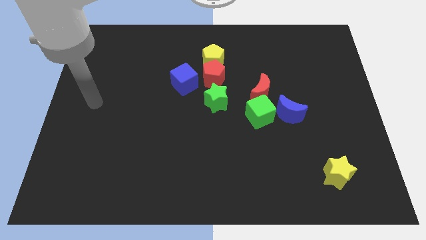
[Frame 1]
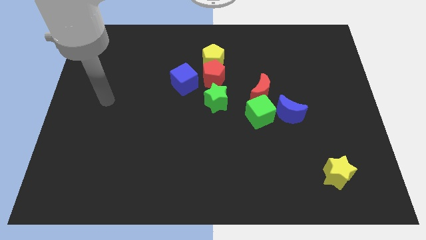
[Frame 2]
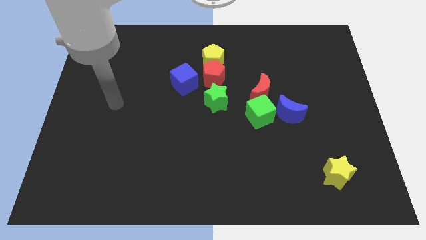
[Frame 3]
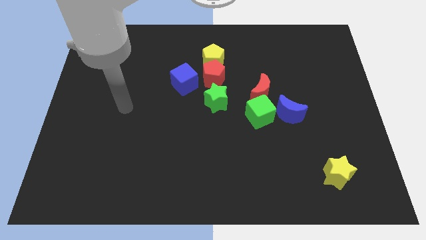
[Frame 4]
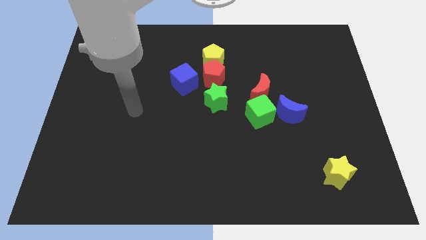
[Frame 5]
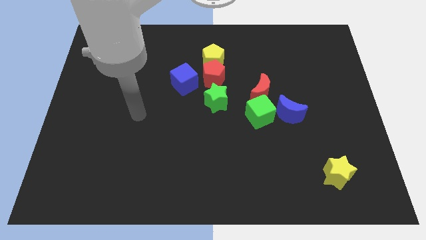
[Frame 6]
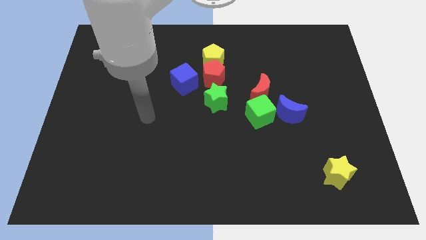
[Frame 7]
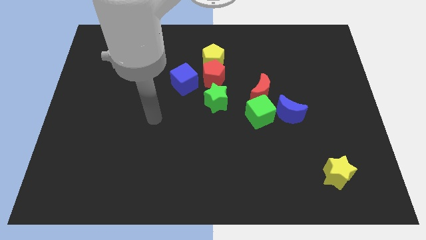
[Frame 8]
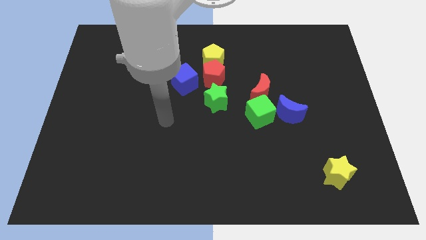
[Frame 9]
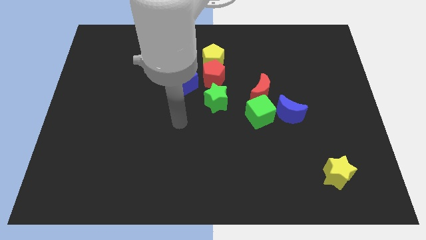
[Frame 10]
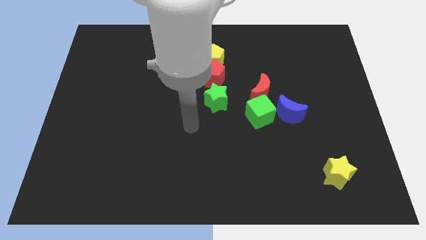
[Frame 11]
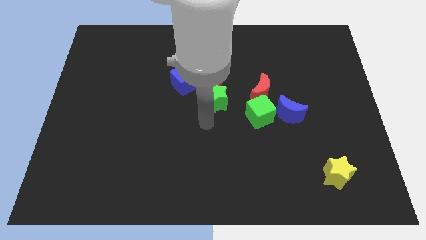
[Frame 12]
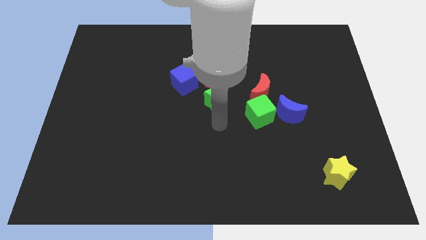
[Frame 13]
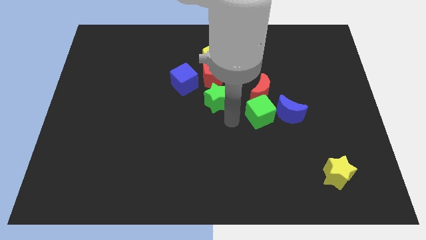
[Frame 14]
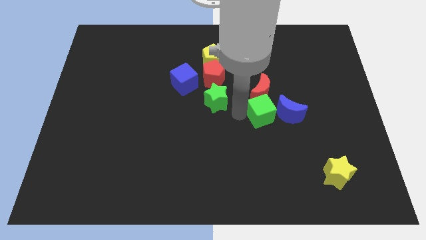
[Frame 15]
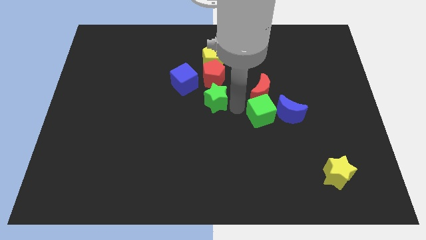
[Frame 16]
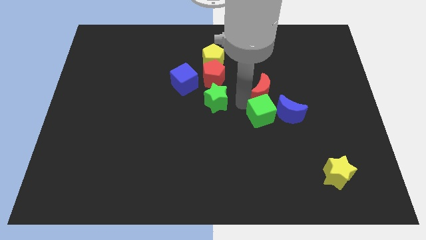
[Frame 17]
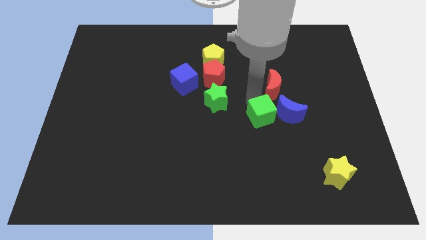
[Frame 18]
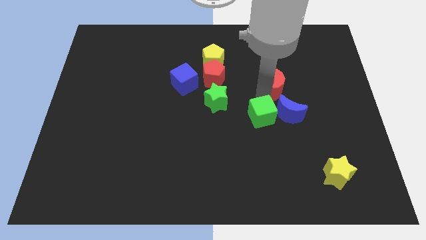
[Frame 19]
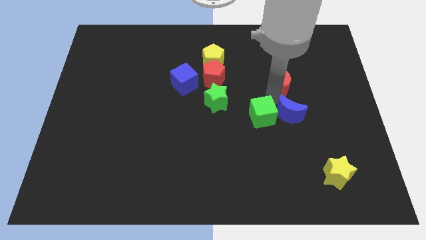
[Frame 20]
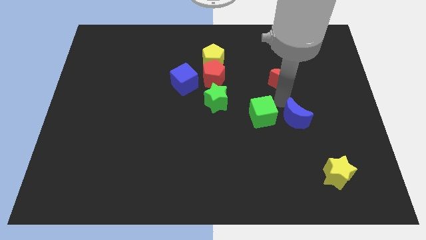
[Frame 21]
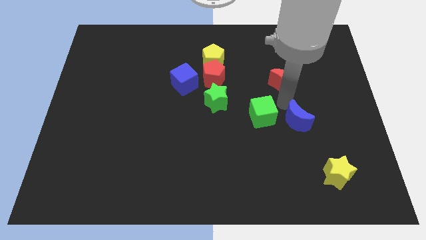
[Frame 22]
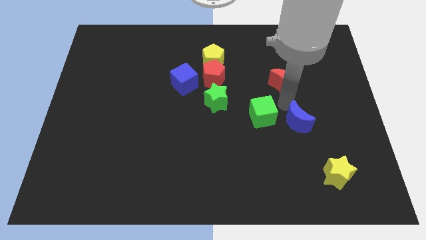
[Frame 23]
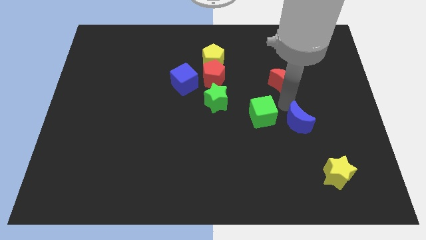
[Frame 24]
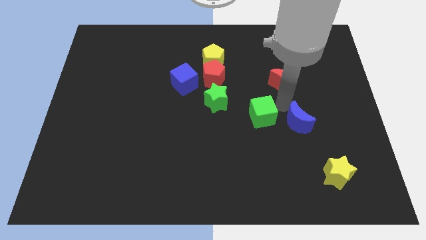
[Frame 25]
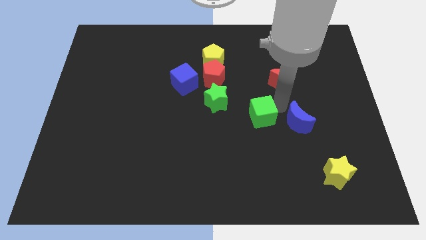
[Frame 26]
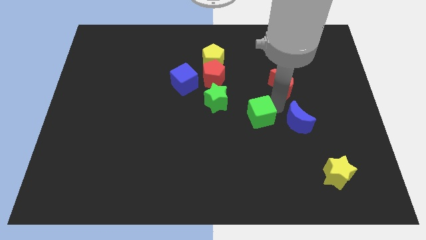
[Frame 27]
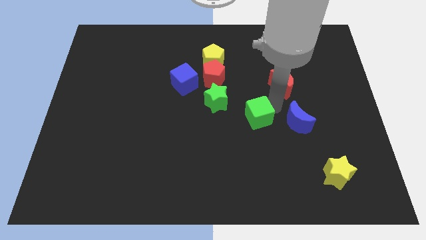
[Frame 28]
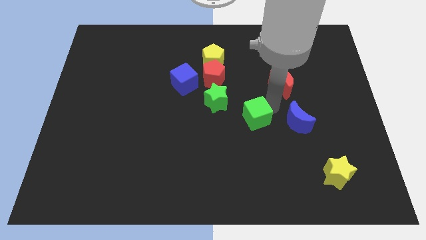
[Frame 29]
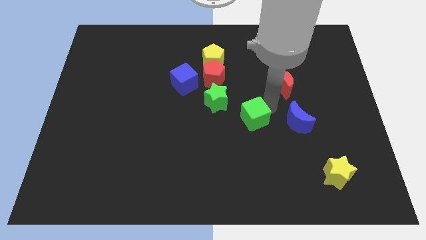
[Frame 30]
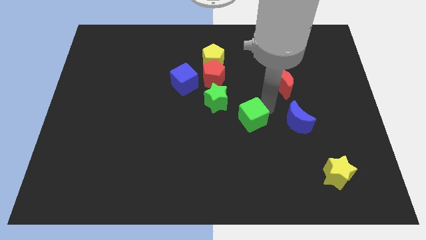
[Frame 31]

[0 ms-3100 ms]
separate the green cube from the red moon and blue moon

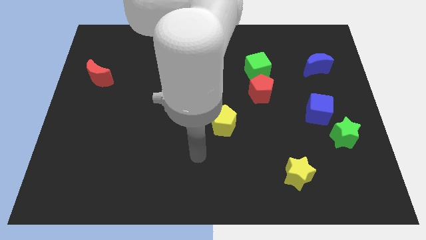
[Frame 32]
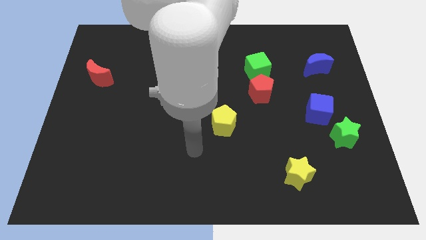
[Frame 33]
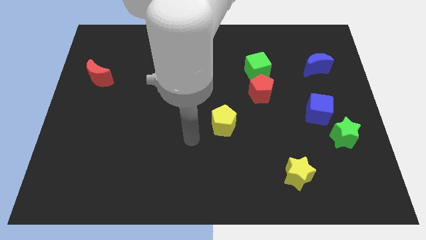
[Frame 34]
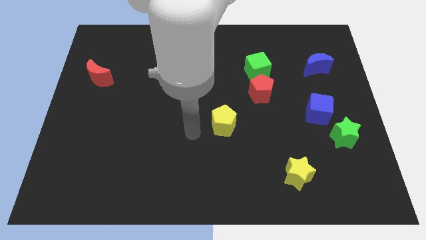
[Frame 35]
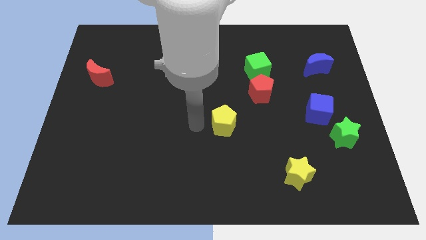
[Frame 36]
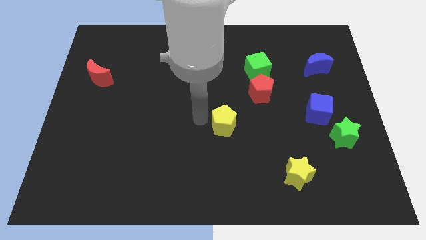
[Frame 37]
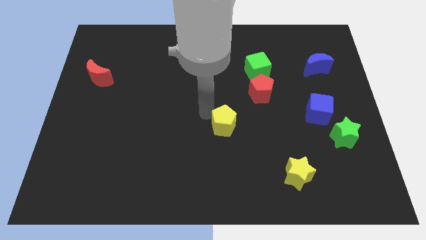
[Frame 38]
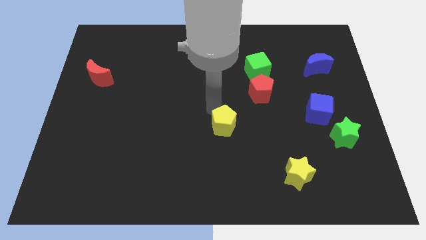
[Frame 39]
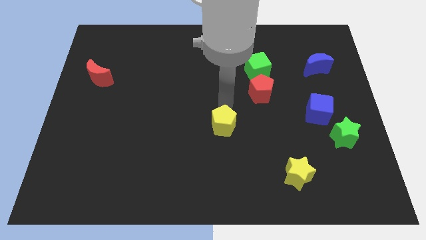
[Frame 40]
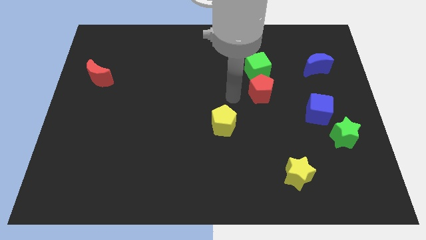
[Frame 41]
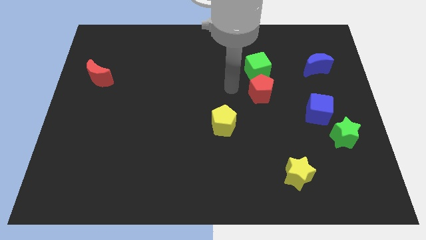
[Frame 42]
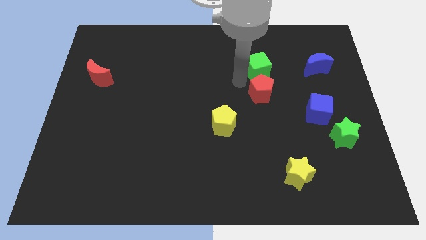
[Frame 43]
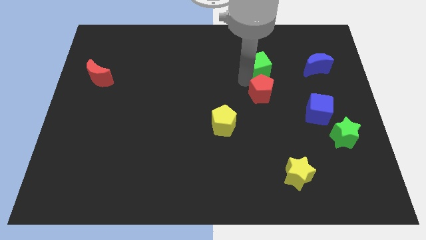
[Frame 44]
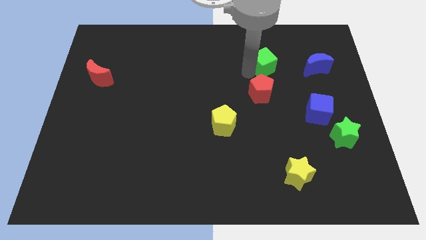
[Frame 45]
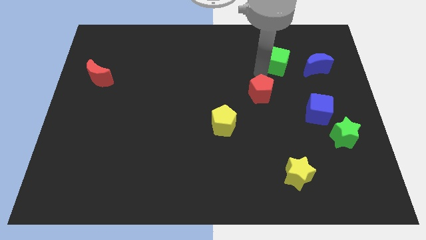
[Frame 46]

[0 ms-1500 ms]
separate the red pentagon from the green cube

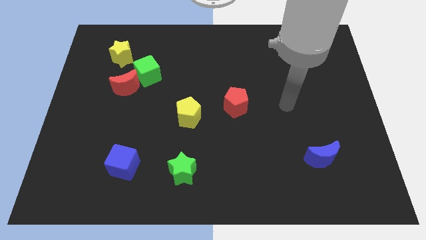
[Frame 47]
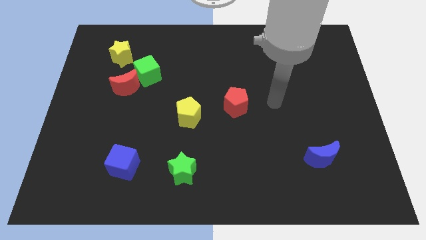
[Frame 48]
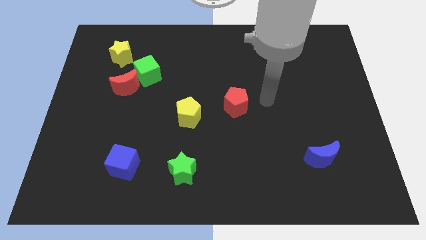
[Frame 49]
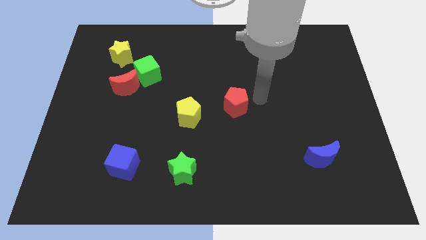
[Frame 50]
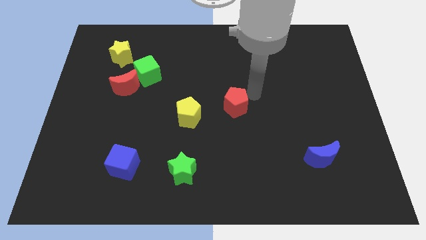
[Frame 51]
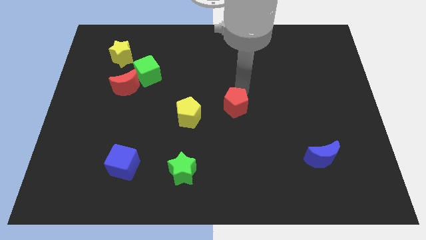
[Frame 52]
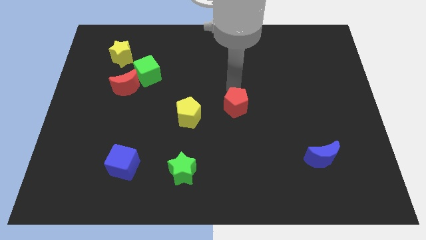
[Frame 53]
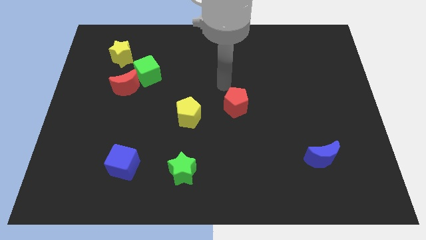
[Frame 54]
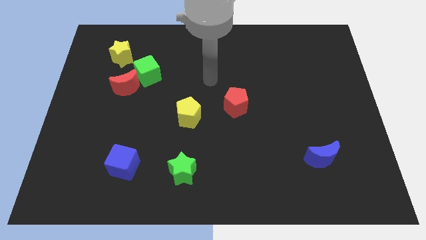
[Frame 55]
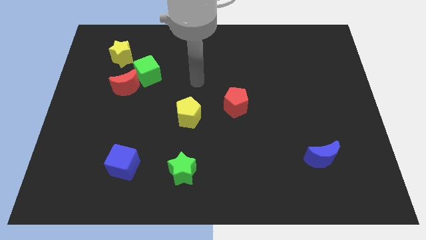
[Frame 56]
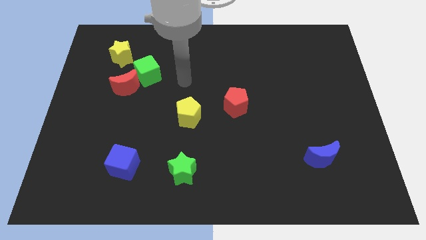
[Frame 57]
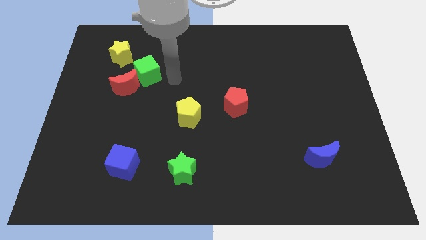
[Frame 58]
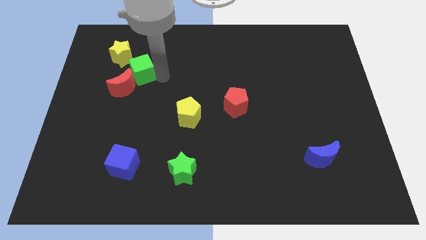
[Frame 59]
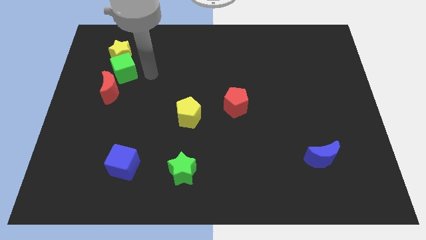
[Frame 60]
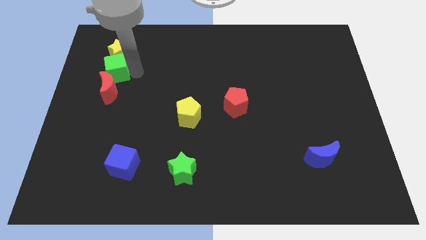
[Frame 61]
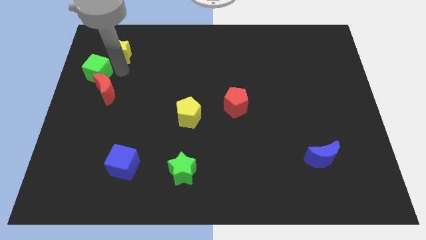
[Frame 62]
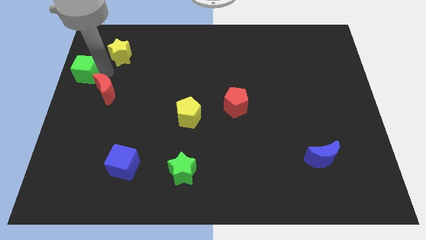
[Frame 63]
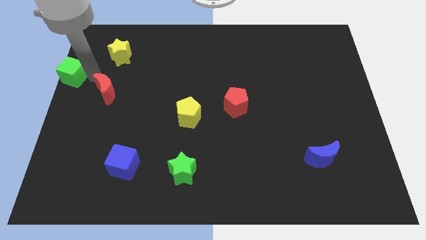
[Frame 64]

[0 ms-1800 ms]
separate the red moon from the green cube

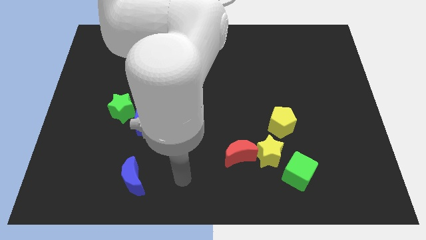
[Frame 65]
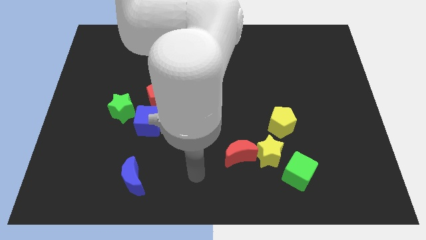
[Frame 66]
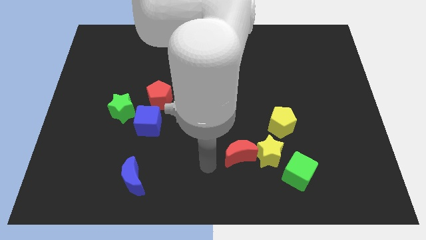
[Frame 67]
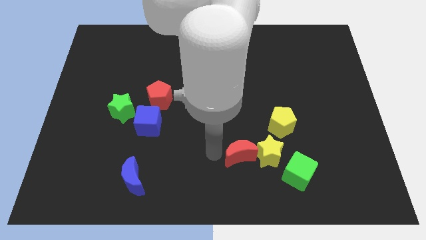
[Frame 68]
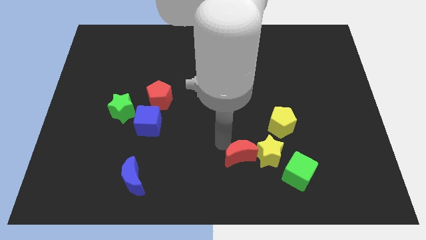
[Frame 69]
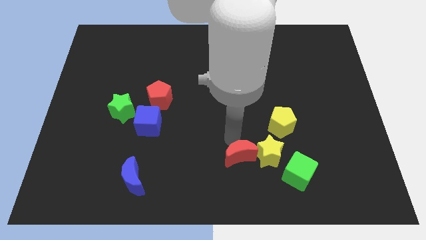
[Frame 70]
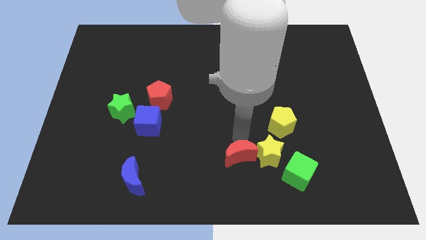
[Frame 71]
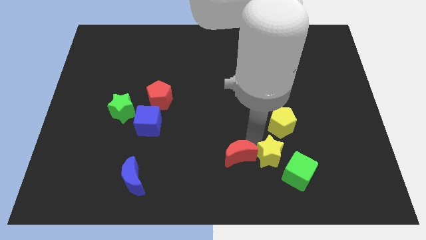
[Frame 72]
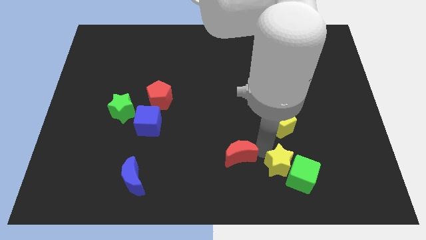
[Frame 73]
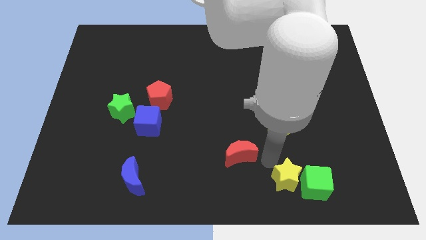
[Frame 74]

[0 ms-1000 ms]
move the red moon away from the yellow star

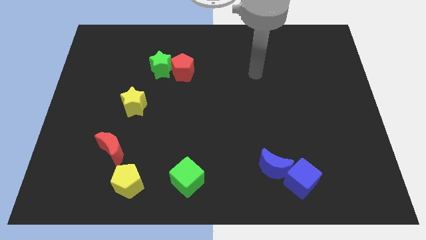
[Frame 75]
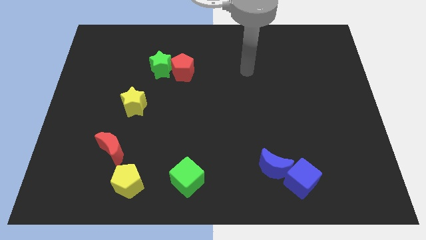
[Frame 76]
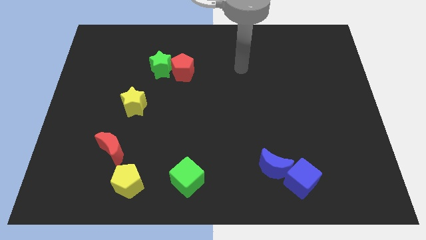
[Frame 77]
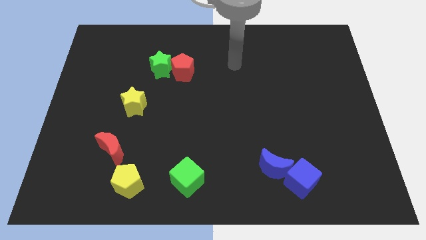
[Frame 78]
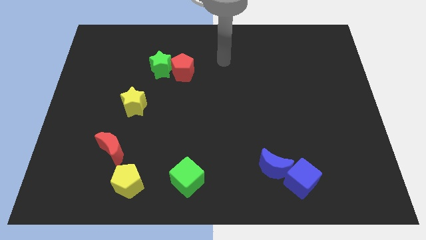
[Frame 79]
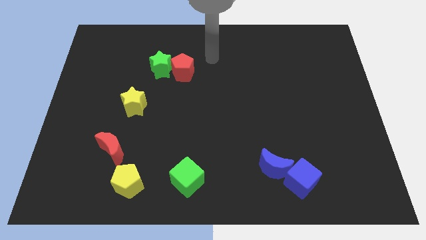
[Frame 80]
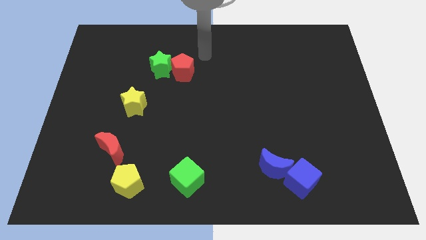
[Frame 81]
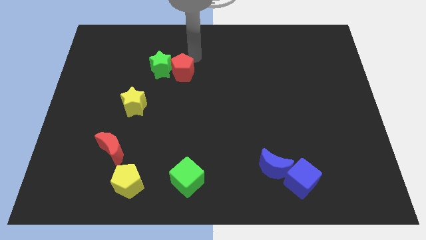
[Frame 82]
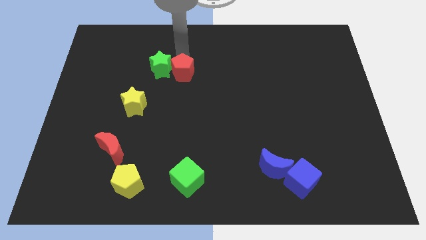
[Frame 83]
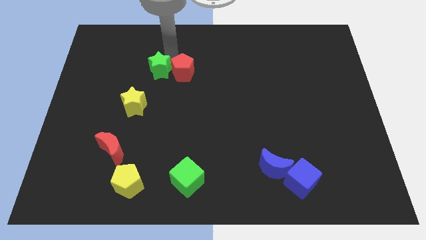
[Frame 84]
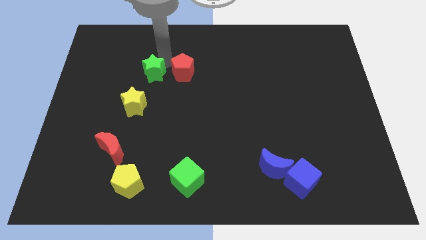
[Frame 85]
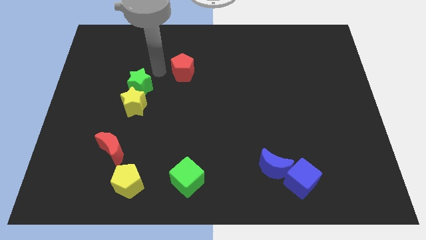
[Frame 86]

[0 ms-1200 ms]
move the red pentagon away from the green star

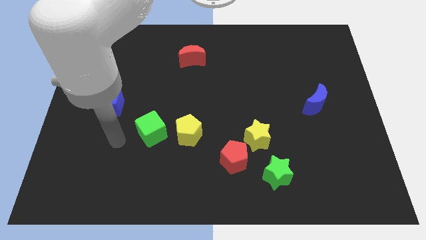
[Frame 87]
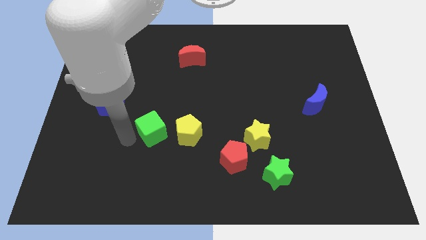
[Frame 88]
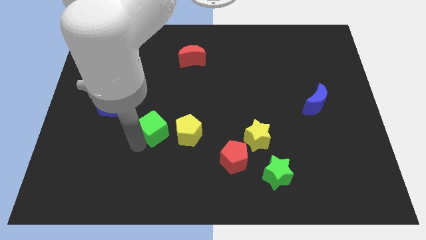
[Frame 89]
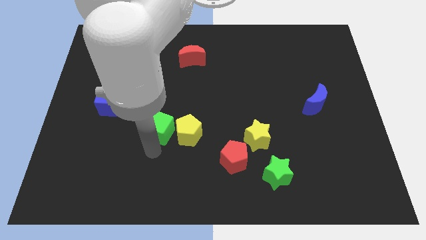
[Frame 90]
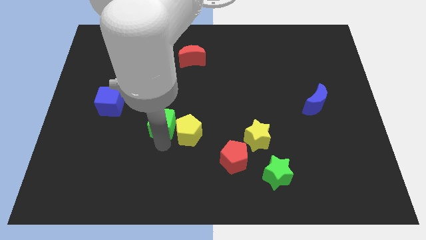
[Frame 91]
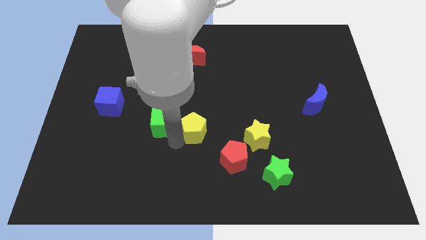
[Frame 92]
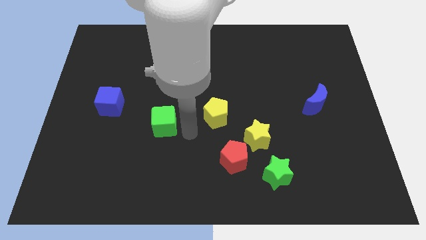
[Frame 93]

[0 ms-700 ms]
move the green cube away from the yellow pentagon
